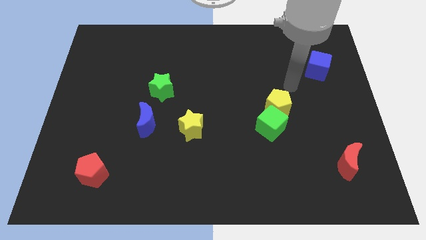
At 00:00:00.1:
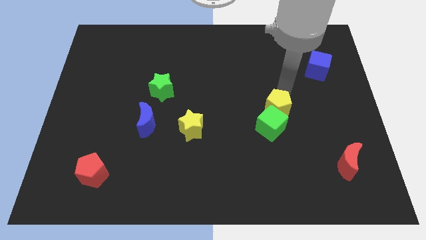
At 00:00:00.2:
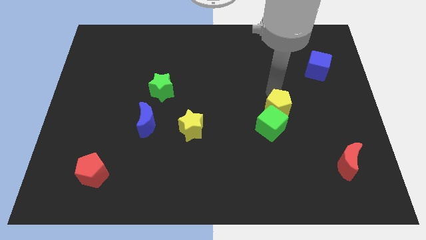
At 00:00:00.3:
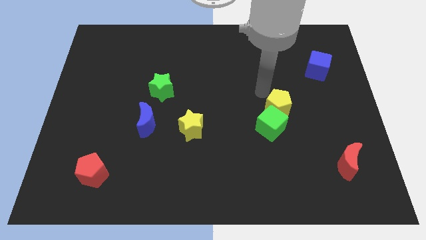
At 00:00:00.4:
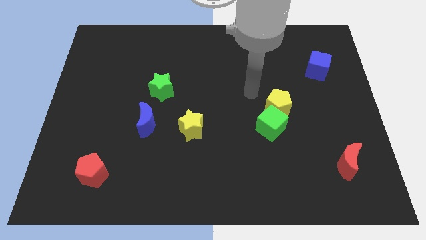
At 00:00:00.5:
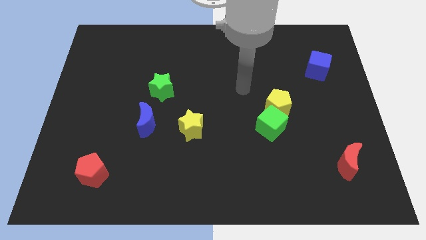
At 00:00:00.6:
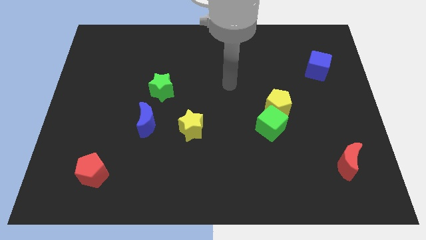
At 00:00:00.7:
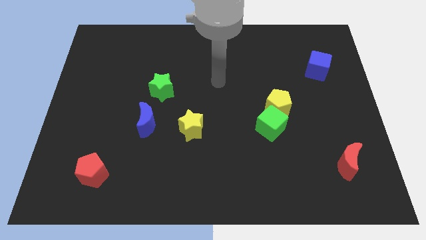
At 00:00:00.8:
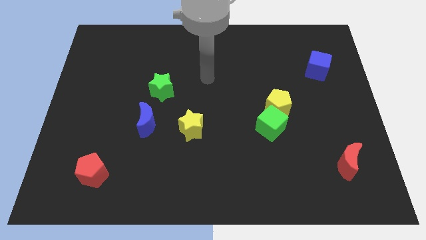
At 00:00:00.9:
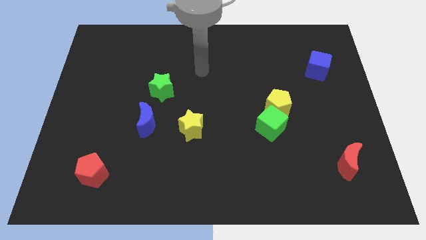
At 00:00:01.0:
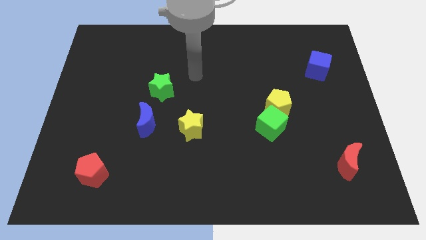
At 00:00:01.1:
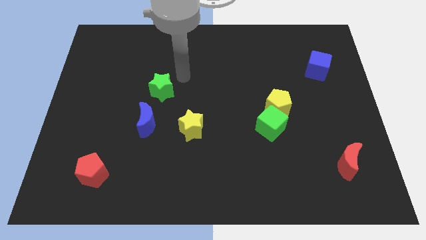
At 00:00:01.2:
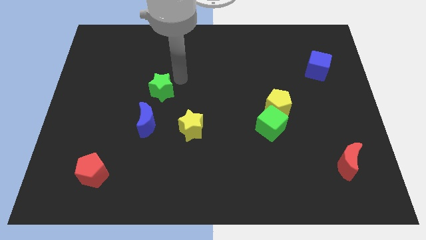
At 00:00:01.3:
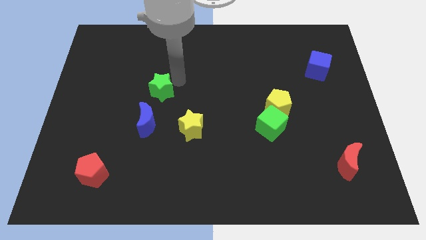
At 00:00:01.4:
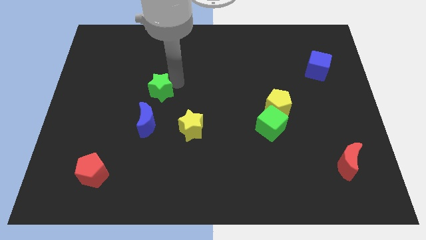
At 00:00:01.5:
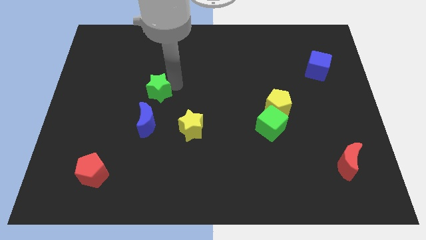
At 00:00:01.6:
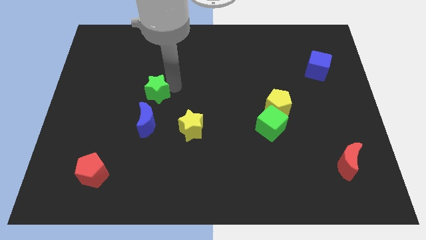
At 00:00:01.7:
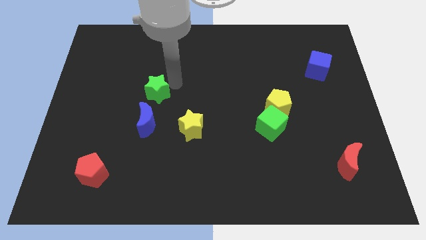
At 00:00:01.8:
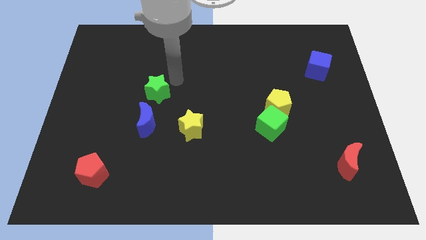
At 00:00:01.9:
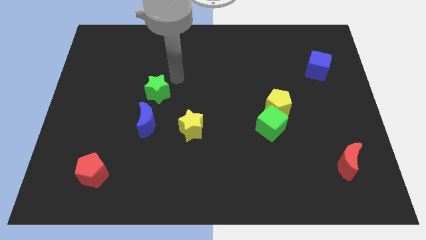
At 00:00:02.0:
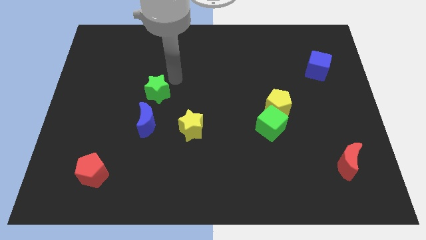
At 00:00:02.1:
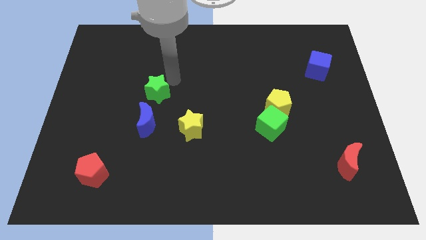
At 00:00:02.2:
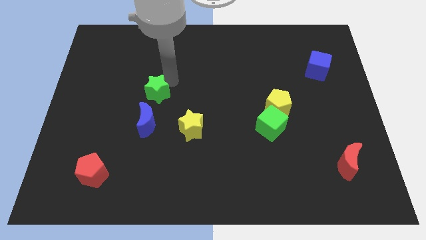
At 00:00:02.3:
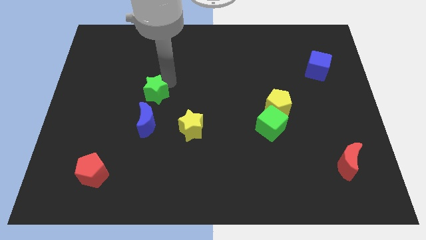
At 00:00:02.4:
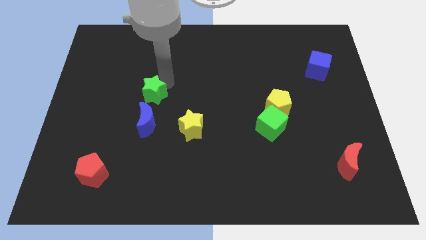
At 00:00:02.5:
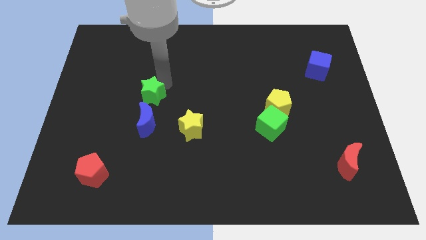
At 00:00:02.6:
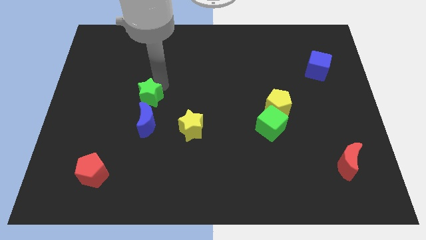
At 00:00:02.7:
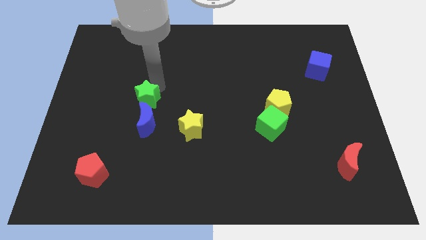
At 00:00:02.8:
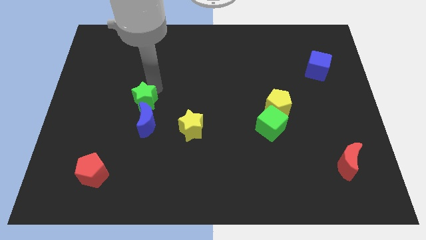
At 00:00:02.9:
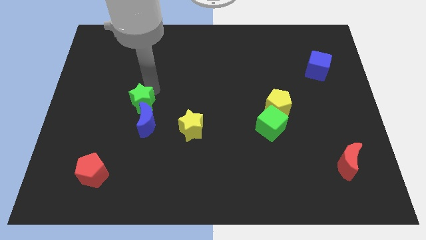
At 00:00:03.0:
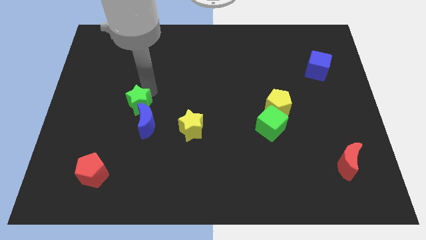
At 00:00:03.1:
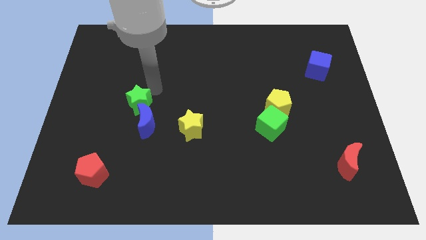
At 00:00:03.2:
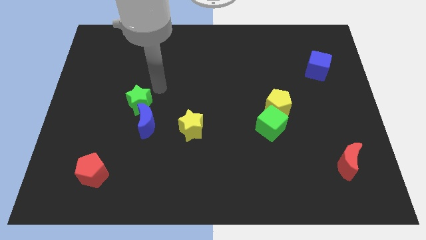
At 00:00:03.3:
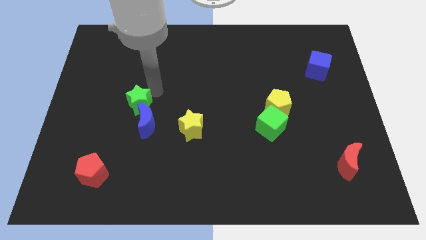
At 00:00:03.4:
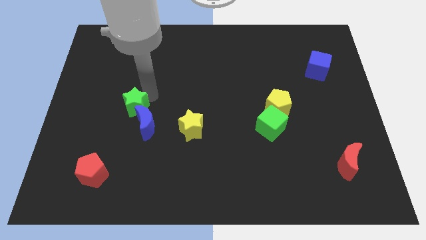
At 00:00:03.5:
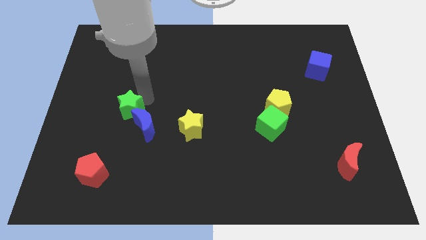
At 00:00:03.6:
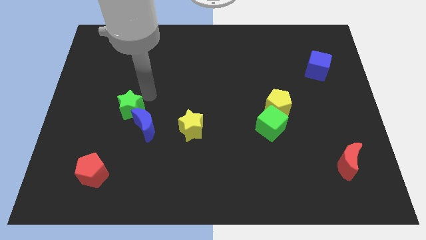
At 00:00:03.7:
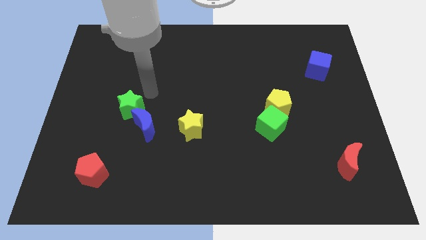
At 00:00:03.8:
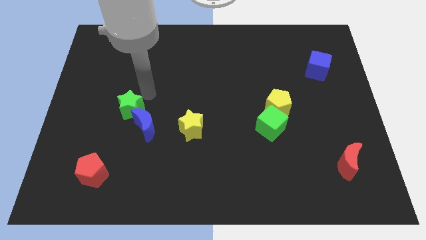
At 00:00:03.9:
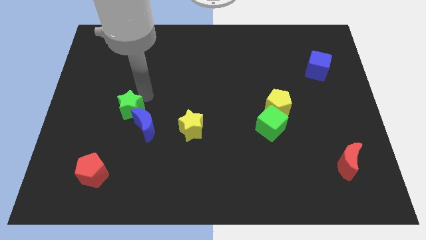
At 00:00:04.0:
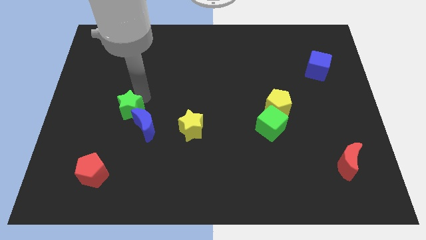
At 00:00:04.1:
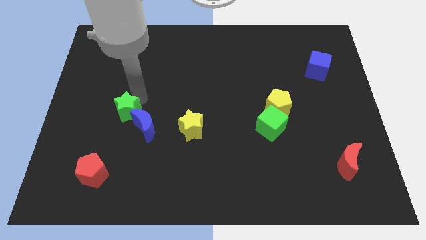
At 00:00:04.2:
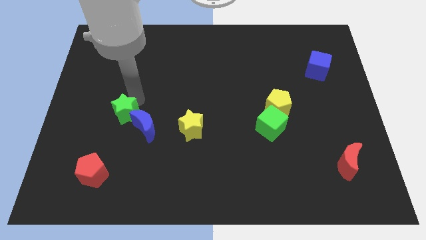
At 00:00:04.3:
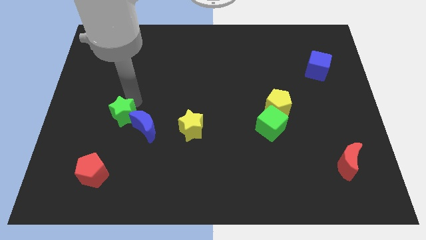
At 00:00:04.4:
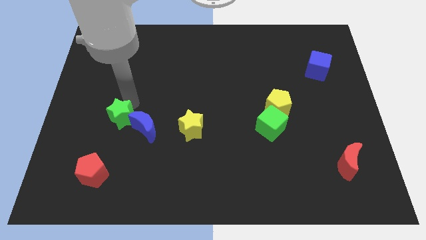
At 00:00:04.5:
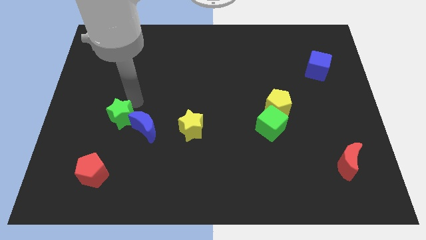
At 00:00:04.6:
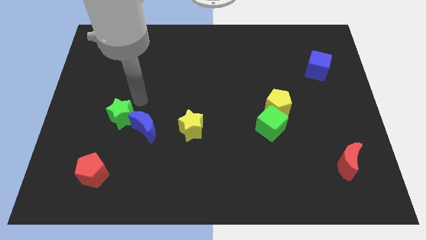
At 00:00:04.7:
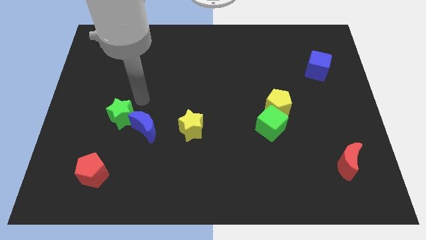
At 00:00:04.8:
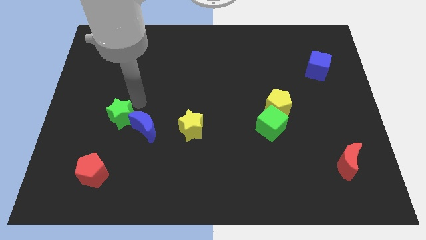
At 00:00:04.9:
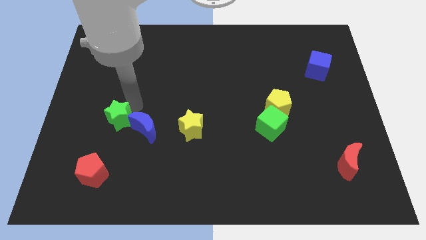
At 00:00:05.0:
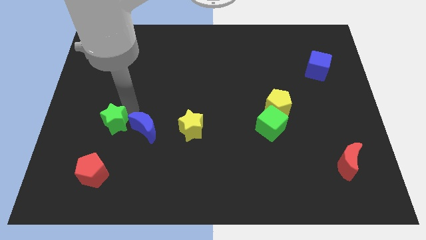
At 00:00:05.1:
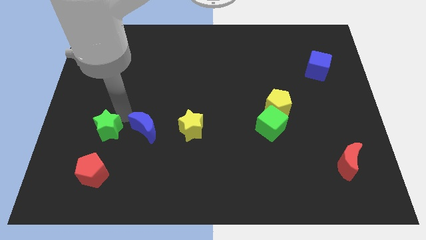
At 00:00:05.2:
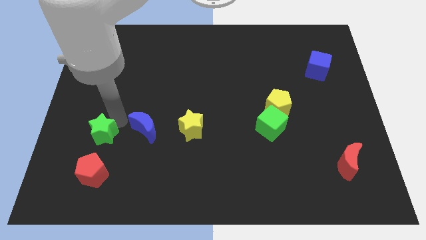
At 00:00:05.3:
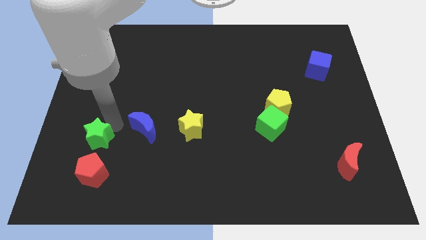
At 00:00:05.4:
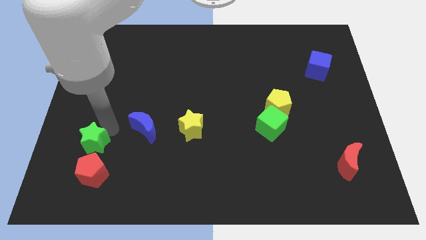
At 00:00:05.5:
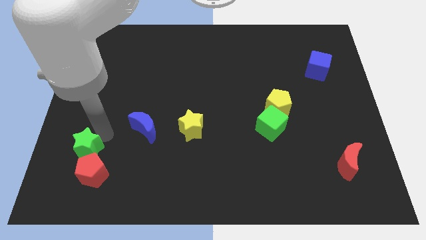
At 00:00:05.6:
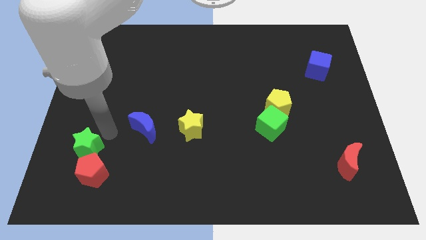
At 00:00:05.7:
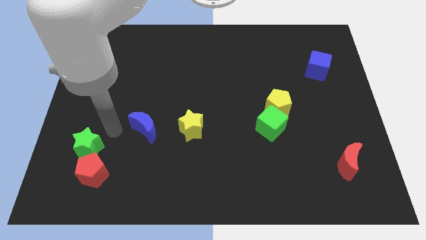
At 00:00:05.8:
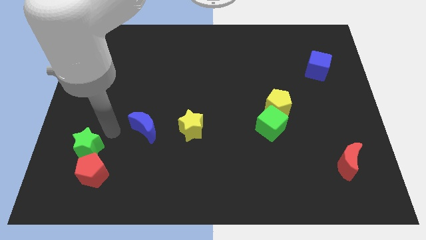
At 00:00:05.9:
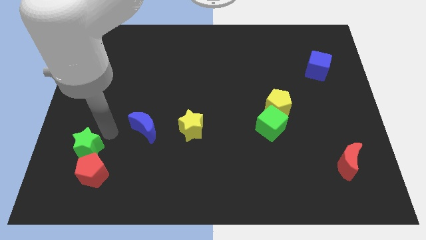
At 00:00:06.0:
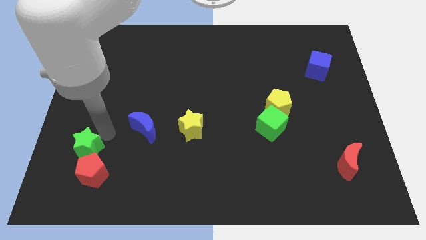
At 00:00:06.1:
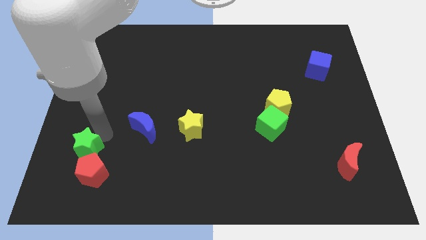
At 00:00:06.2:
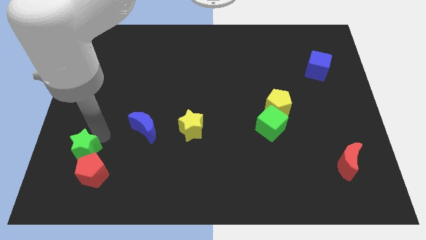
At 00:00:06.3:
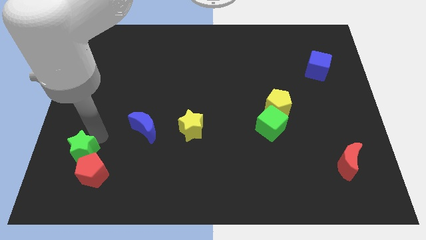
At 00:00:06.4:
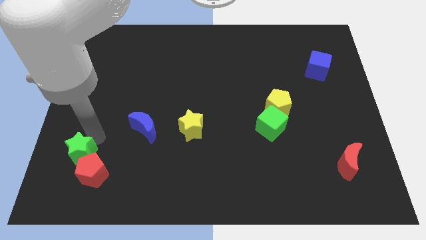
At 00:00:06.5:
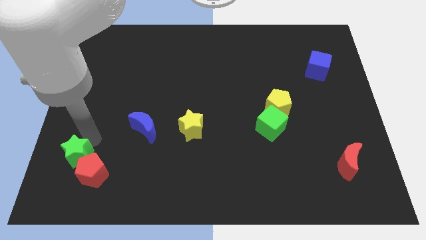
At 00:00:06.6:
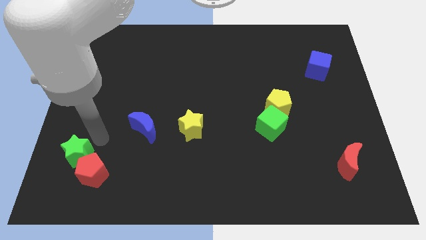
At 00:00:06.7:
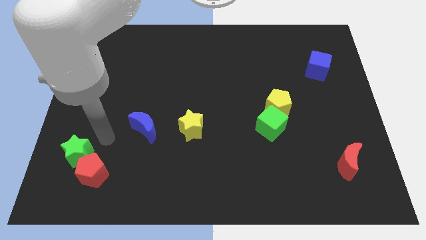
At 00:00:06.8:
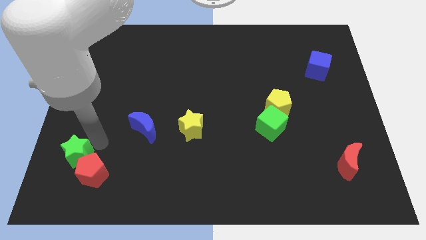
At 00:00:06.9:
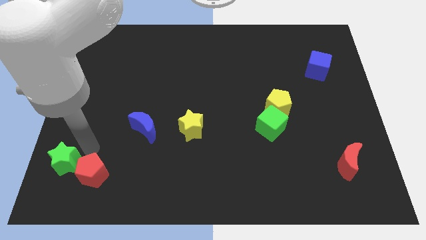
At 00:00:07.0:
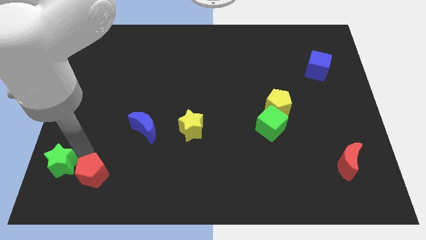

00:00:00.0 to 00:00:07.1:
push the green star to the bottom left
